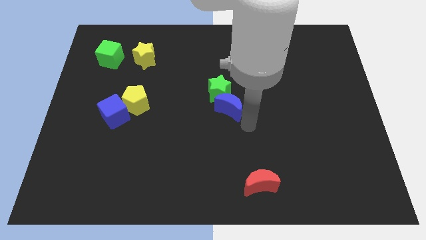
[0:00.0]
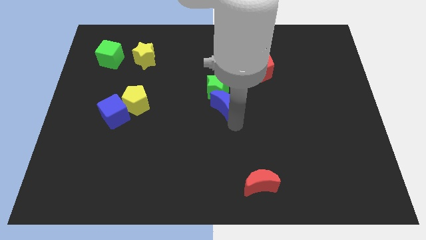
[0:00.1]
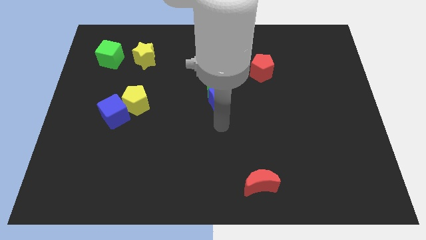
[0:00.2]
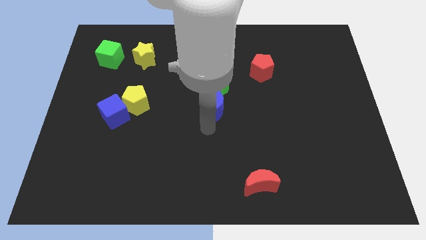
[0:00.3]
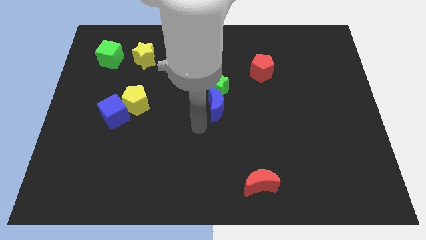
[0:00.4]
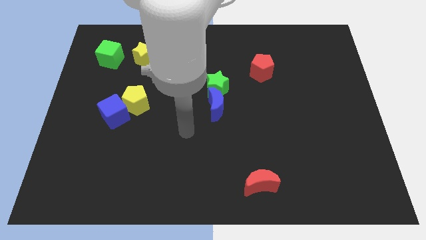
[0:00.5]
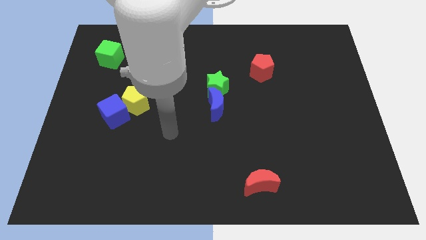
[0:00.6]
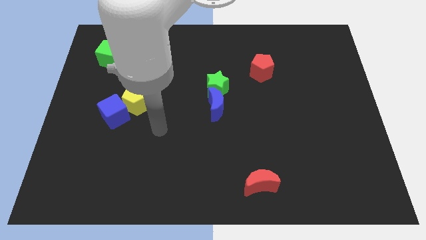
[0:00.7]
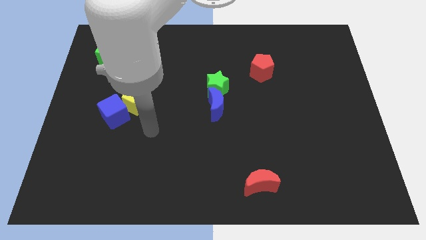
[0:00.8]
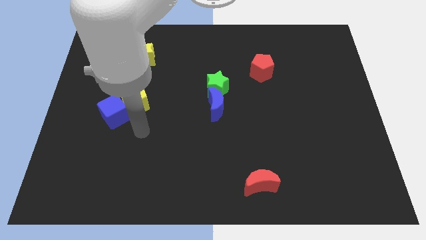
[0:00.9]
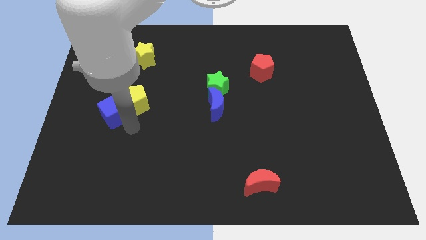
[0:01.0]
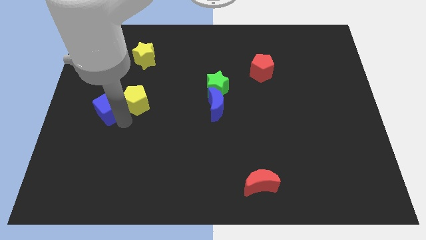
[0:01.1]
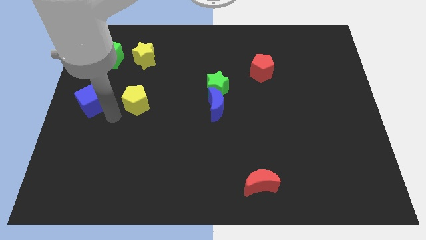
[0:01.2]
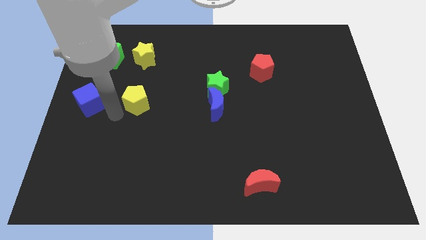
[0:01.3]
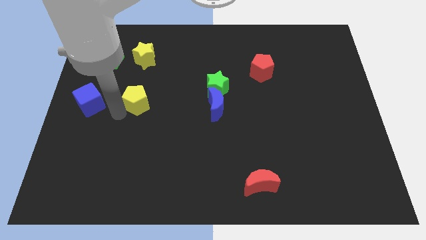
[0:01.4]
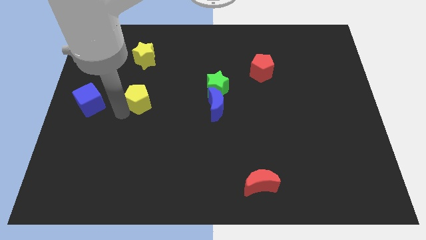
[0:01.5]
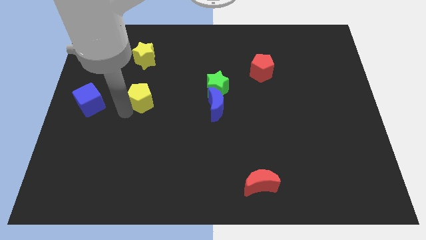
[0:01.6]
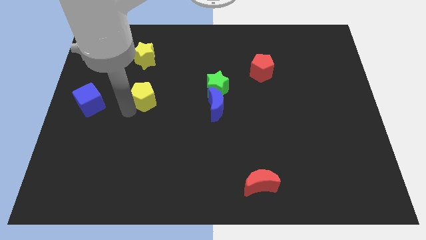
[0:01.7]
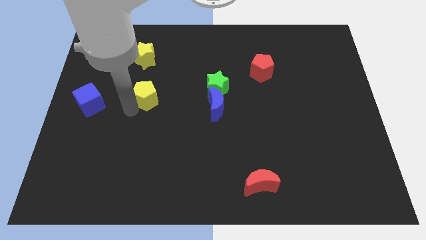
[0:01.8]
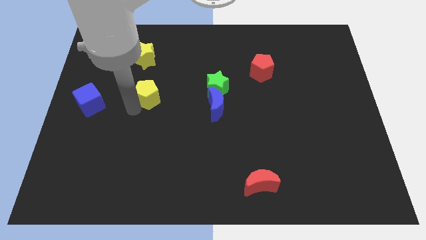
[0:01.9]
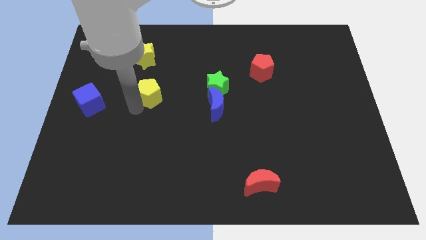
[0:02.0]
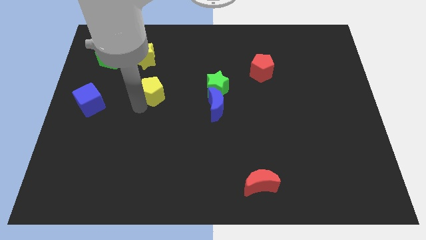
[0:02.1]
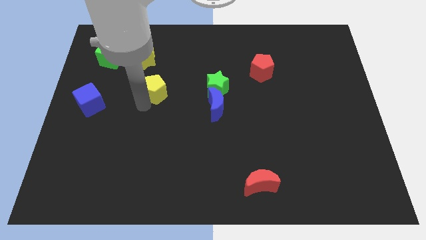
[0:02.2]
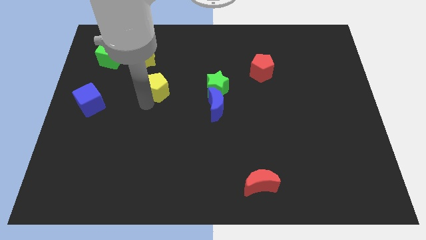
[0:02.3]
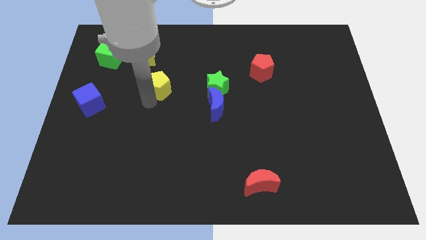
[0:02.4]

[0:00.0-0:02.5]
move the yellow pentagon upwards and right somewhat

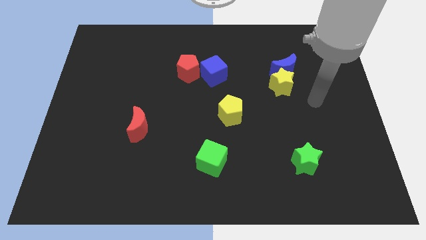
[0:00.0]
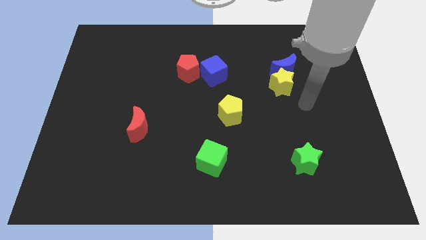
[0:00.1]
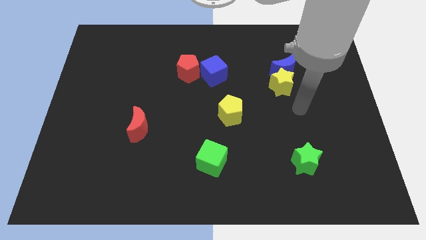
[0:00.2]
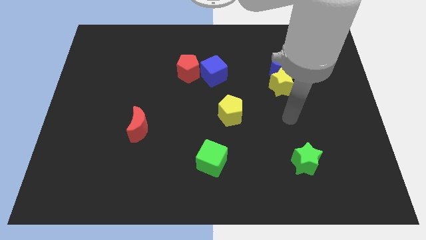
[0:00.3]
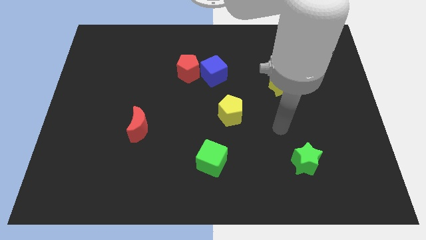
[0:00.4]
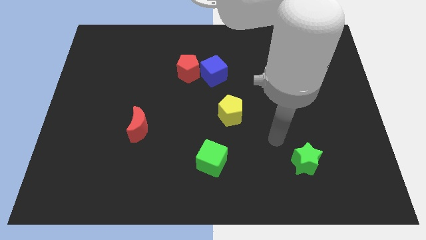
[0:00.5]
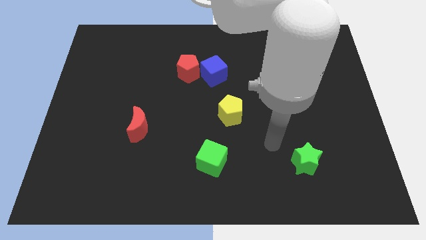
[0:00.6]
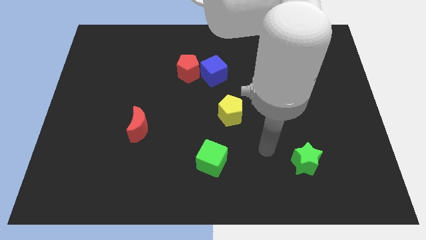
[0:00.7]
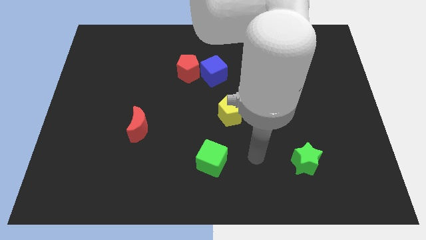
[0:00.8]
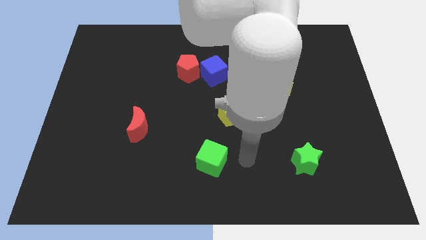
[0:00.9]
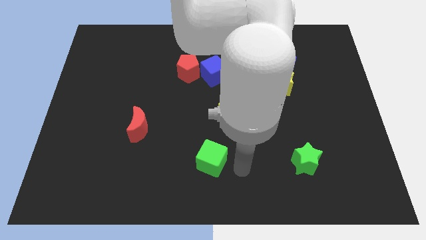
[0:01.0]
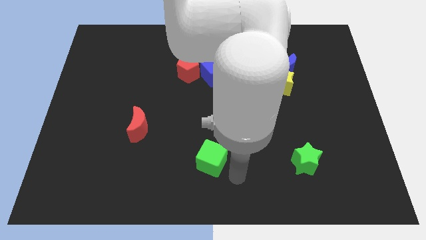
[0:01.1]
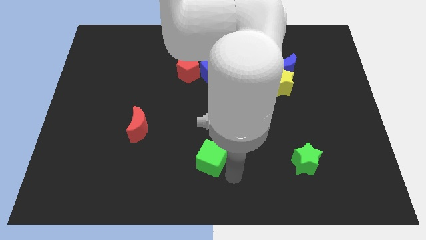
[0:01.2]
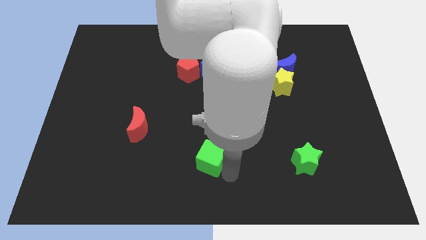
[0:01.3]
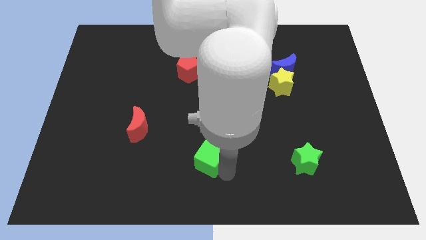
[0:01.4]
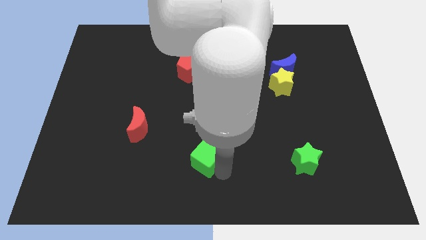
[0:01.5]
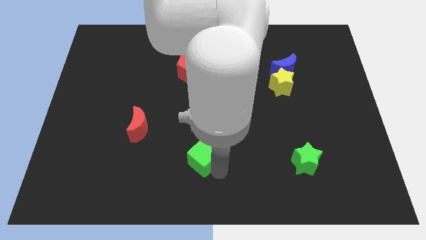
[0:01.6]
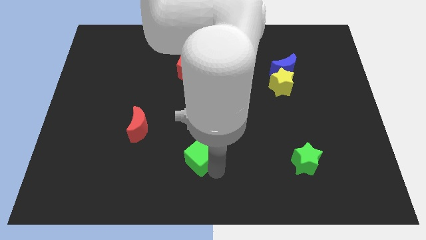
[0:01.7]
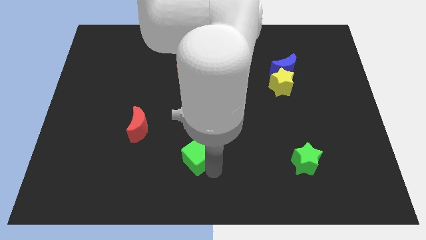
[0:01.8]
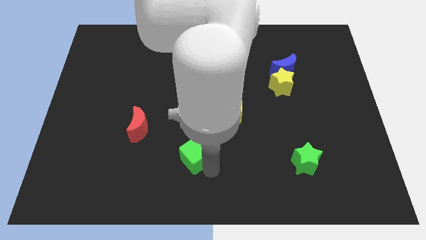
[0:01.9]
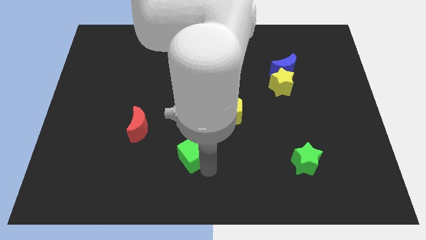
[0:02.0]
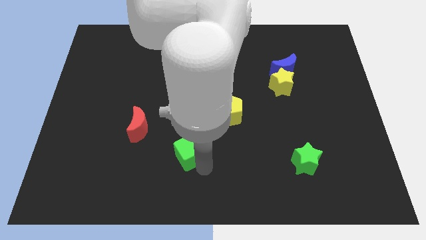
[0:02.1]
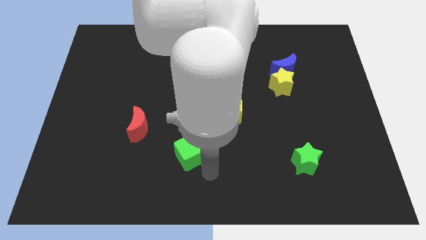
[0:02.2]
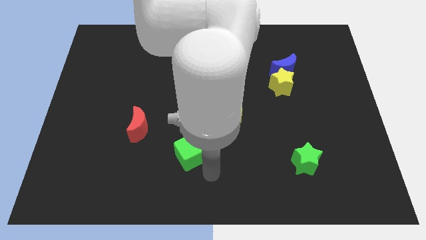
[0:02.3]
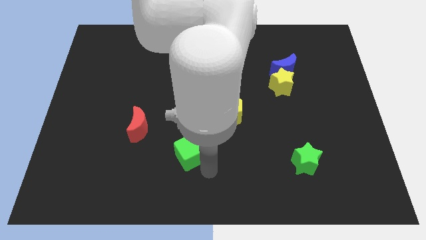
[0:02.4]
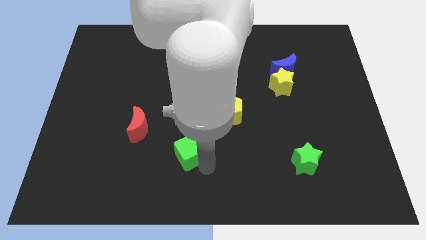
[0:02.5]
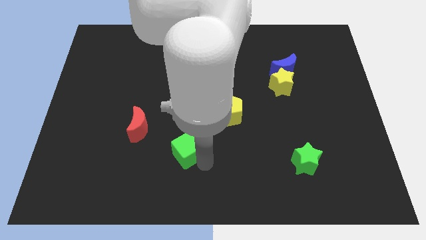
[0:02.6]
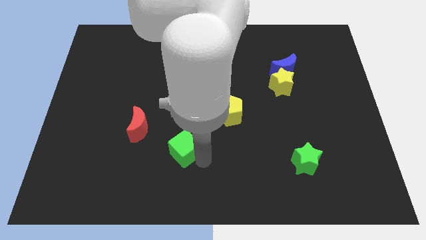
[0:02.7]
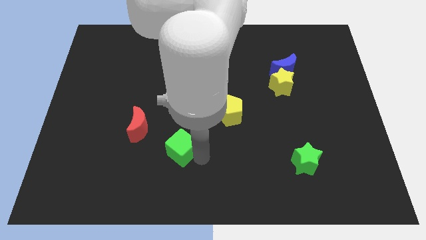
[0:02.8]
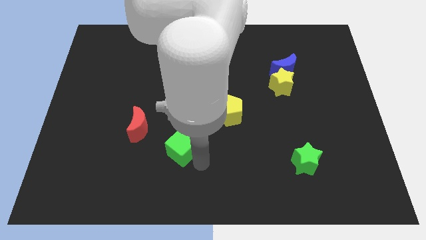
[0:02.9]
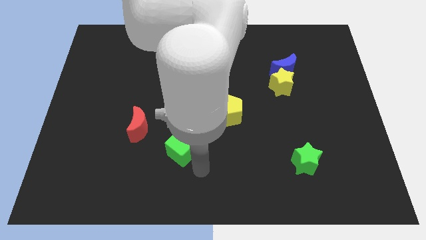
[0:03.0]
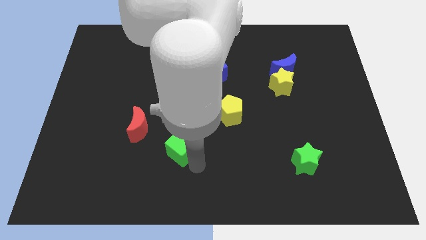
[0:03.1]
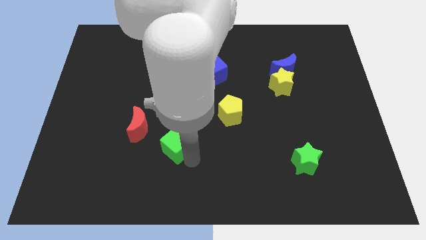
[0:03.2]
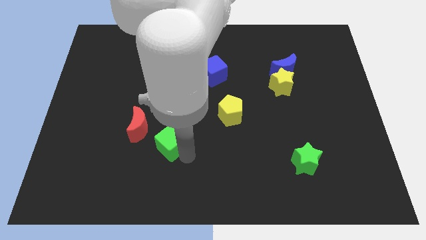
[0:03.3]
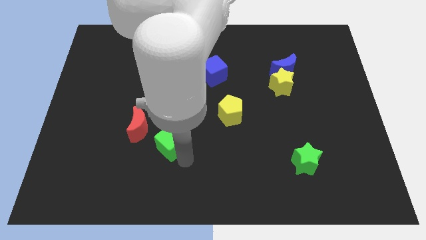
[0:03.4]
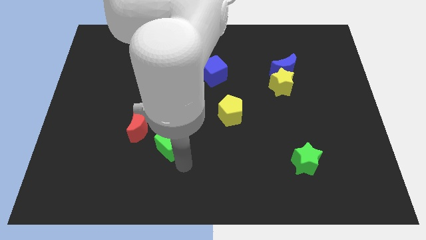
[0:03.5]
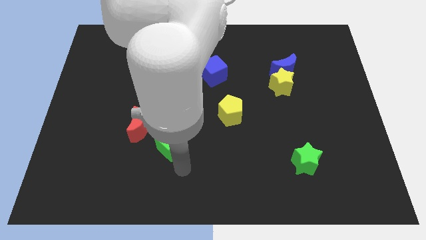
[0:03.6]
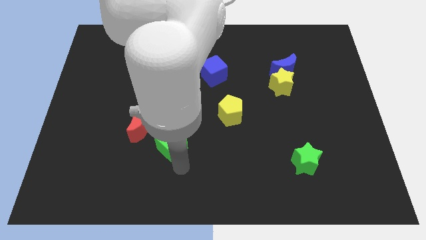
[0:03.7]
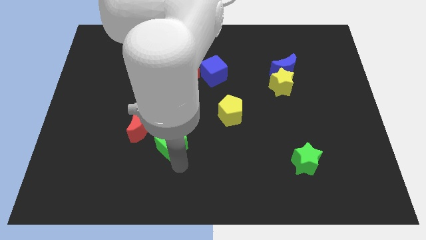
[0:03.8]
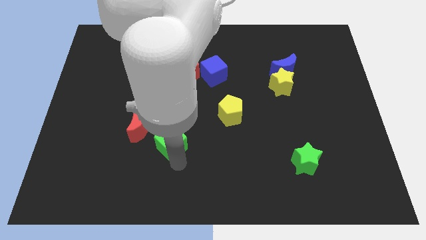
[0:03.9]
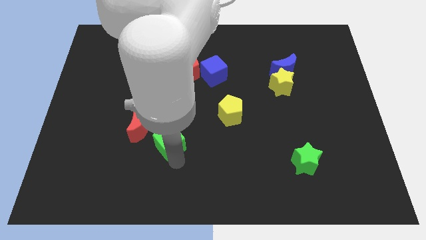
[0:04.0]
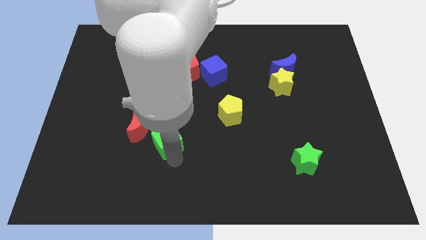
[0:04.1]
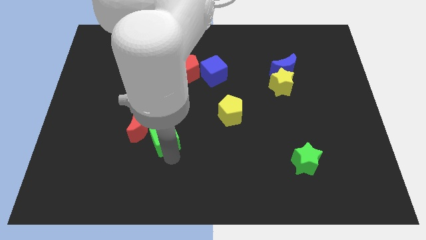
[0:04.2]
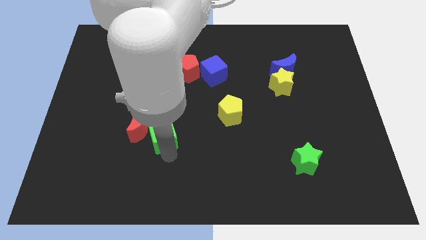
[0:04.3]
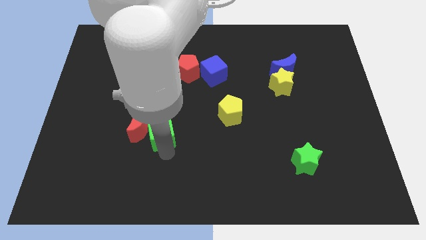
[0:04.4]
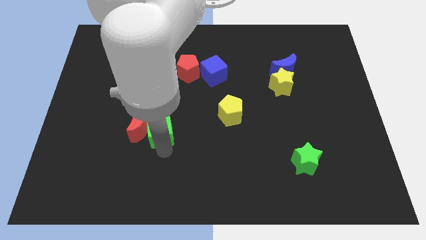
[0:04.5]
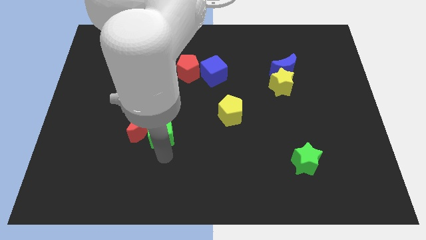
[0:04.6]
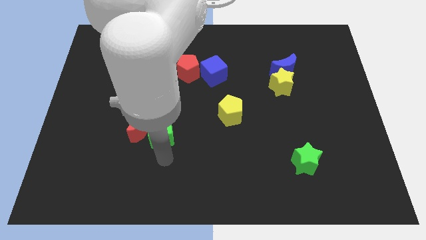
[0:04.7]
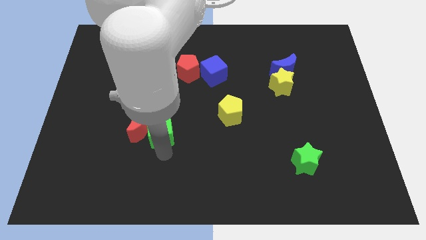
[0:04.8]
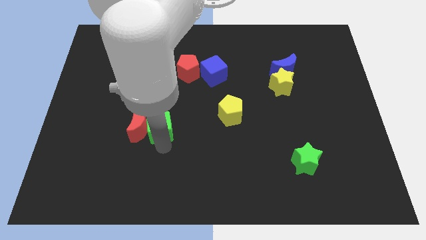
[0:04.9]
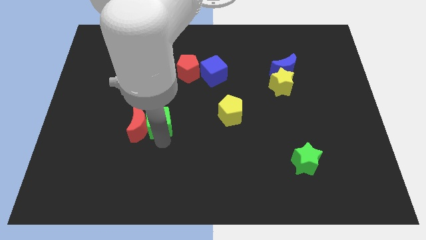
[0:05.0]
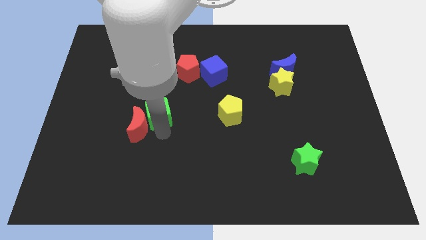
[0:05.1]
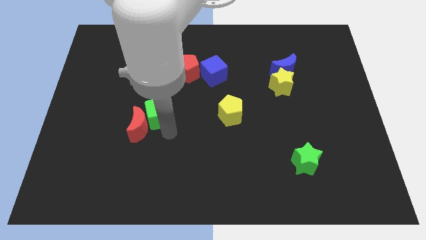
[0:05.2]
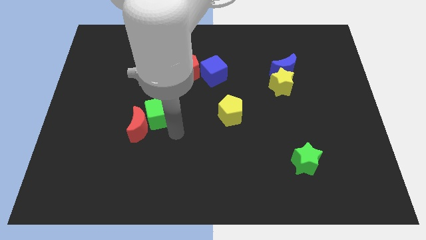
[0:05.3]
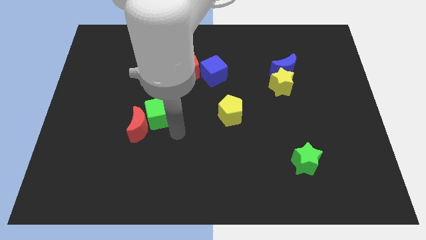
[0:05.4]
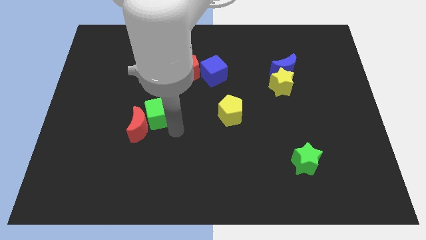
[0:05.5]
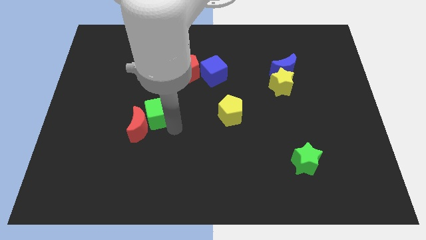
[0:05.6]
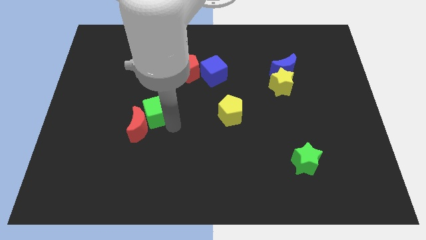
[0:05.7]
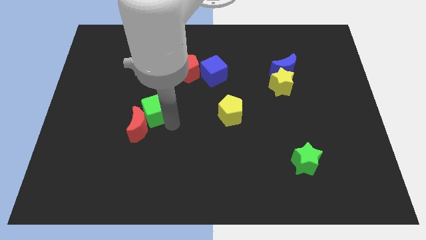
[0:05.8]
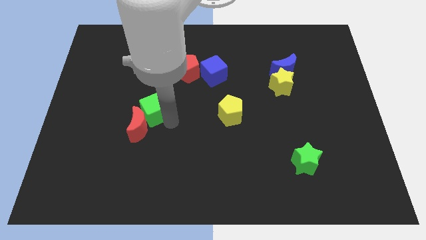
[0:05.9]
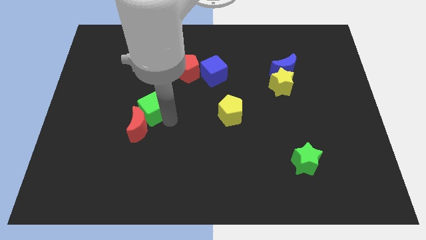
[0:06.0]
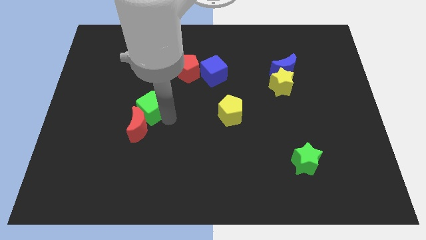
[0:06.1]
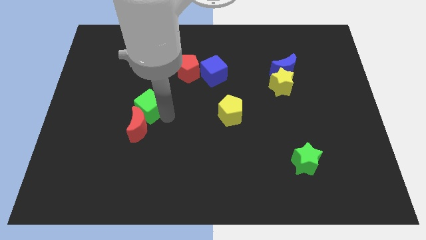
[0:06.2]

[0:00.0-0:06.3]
move the green cube up and then to the left
